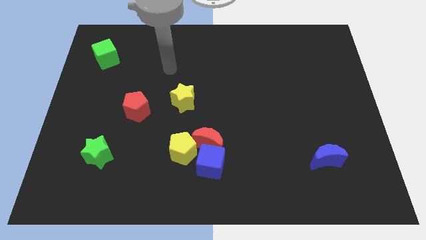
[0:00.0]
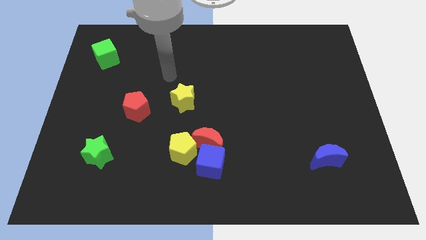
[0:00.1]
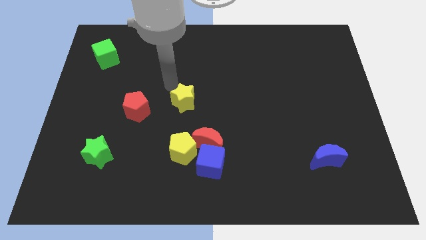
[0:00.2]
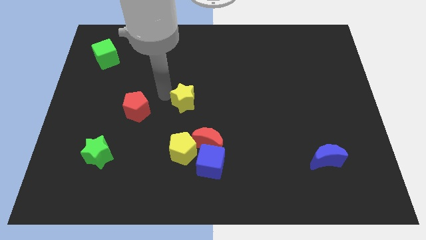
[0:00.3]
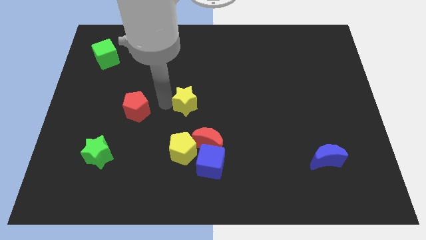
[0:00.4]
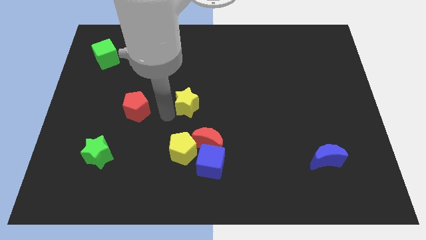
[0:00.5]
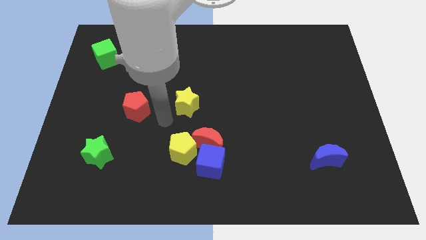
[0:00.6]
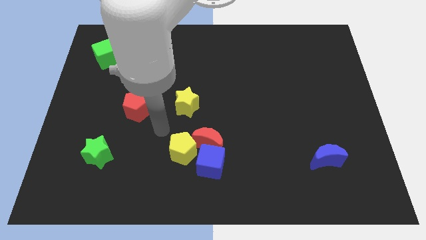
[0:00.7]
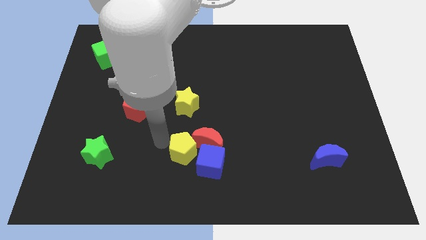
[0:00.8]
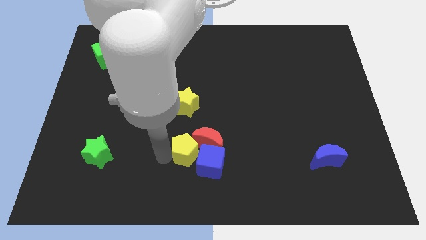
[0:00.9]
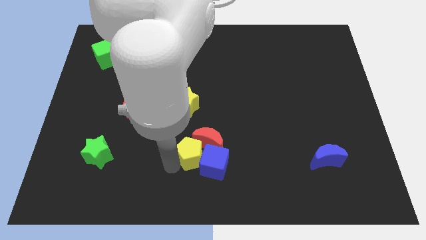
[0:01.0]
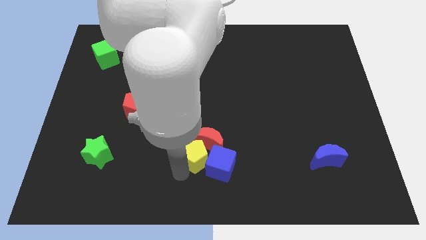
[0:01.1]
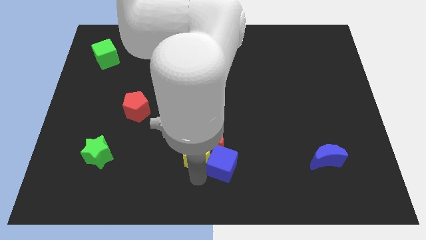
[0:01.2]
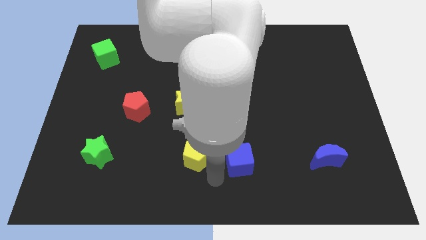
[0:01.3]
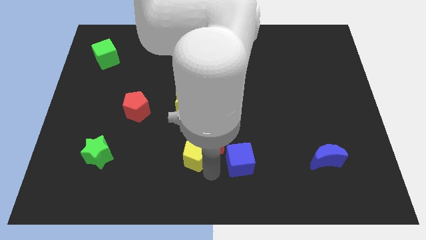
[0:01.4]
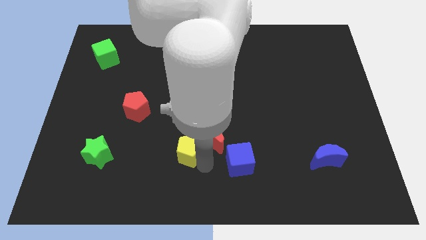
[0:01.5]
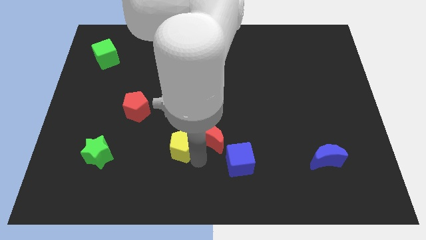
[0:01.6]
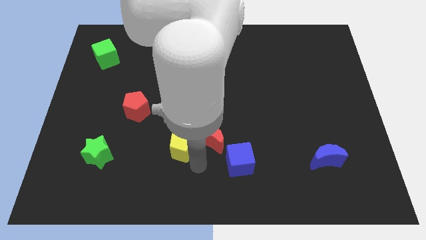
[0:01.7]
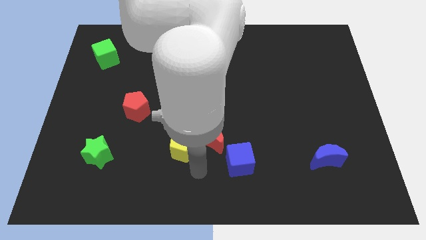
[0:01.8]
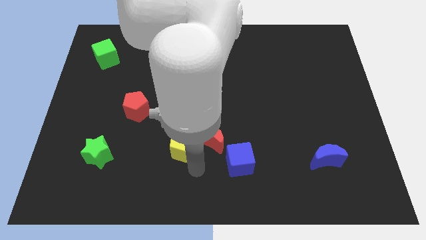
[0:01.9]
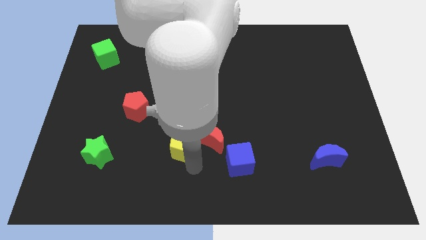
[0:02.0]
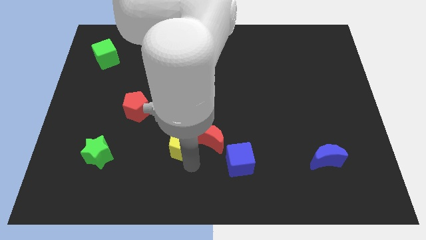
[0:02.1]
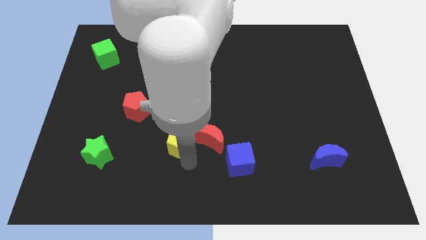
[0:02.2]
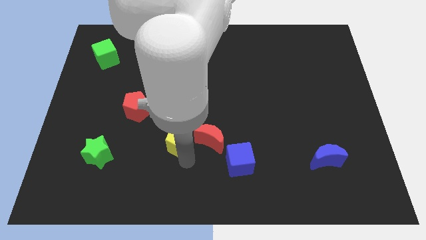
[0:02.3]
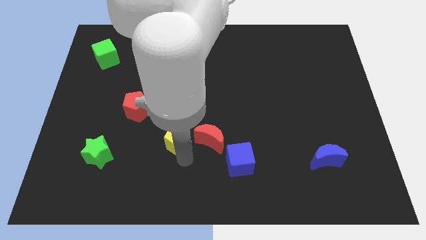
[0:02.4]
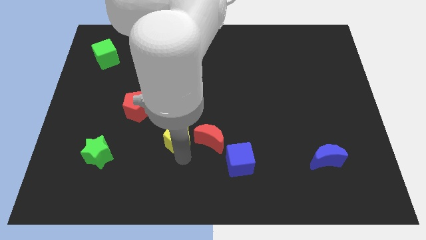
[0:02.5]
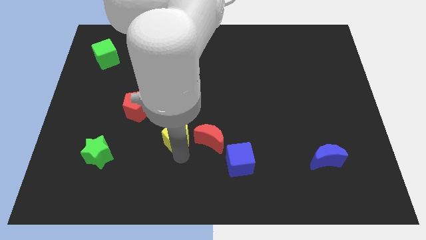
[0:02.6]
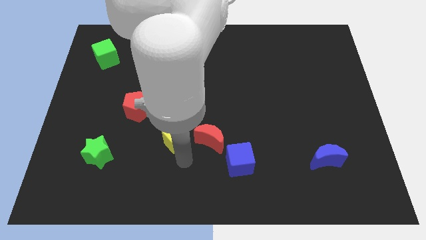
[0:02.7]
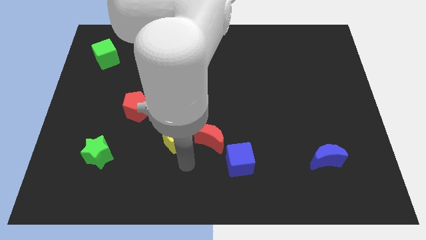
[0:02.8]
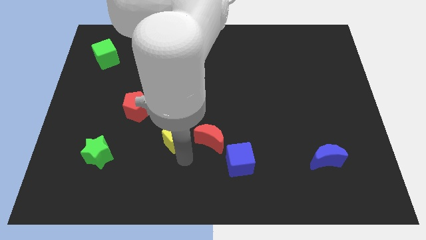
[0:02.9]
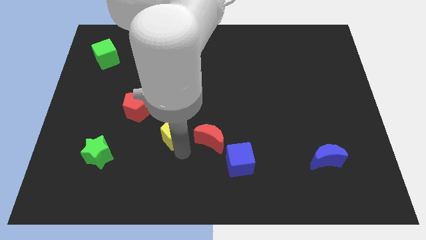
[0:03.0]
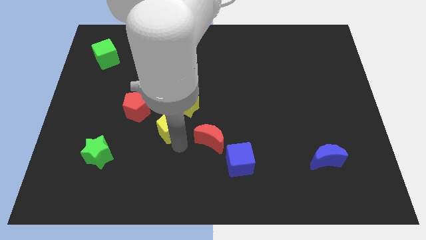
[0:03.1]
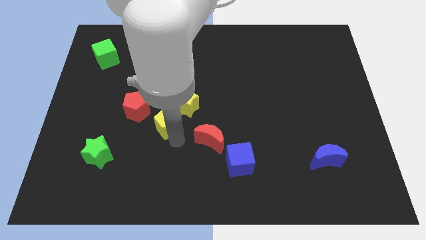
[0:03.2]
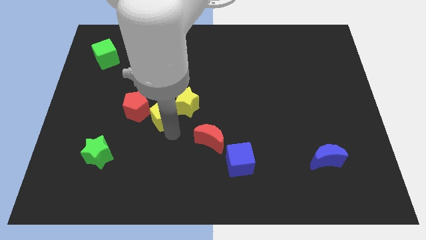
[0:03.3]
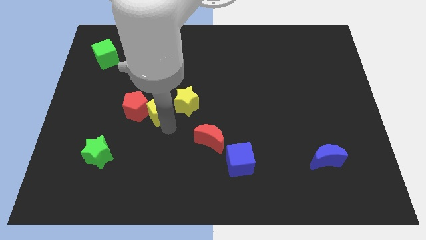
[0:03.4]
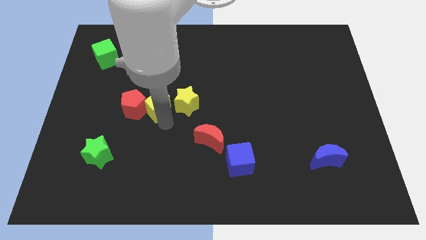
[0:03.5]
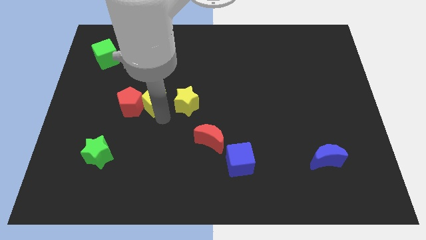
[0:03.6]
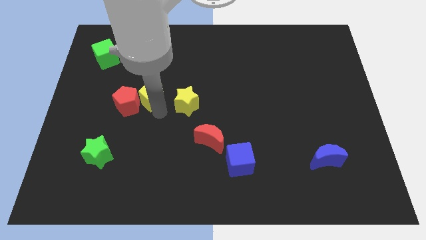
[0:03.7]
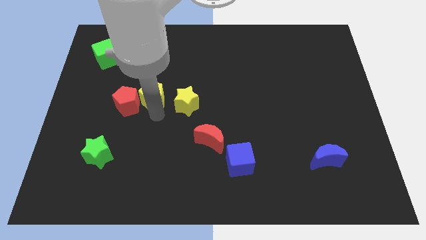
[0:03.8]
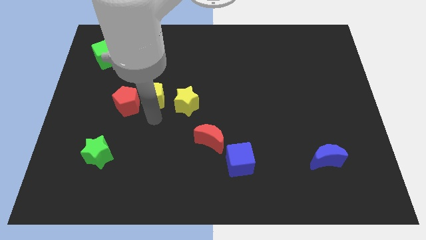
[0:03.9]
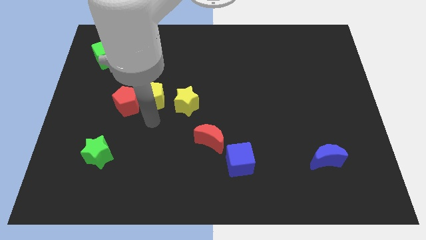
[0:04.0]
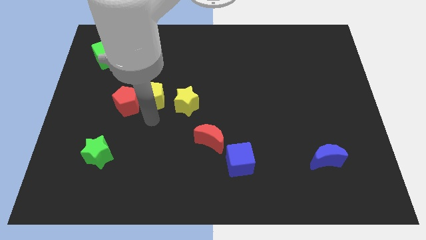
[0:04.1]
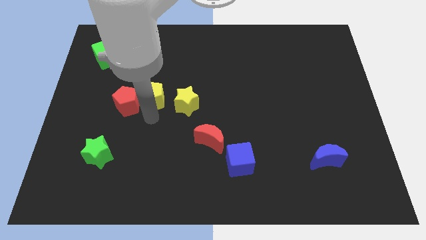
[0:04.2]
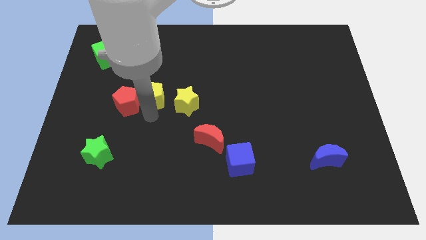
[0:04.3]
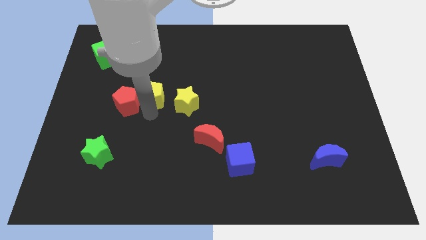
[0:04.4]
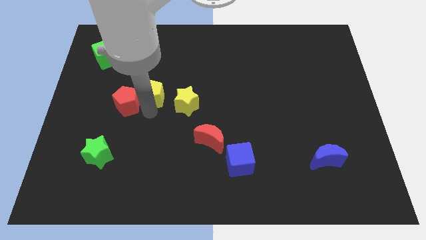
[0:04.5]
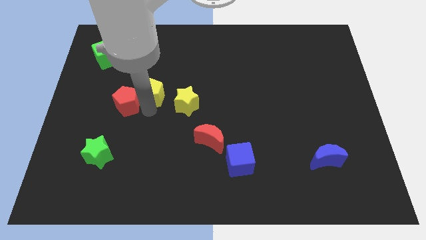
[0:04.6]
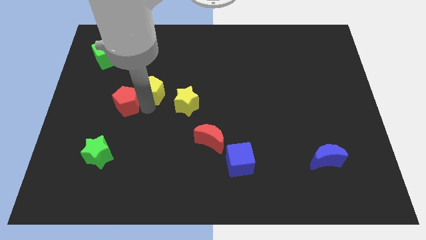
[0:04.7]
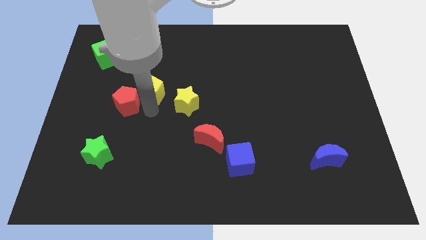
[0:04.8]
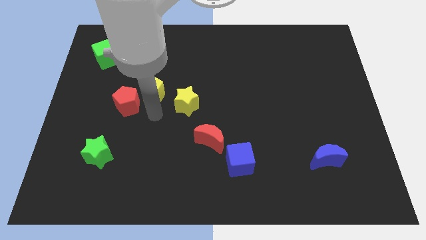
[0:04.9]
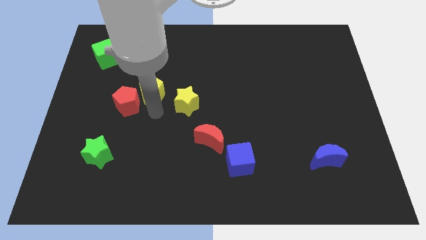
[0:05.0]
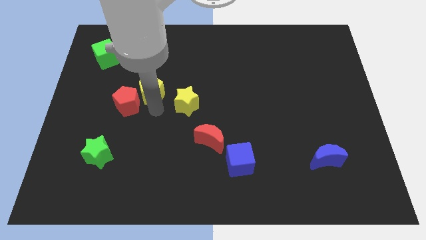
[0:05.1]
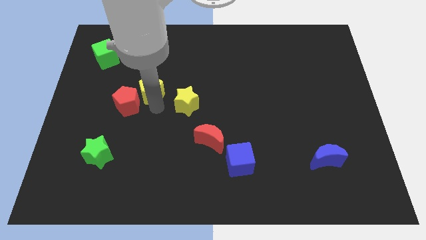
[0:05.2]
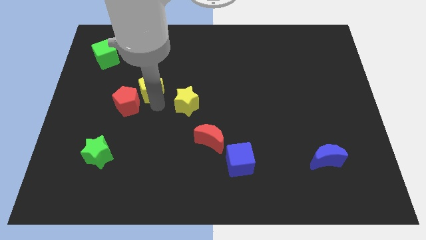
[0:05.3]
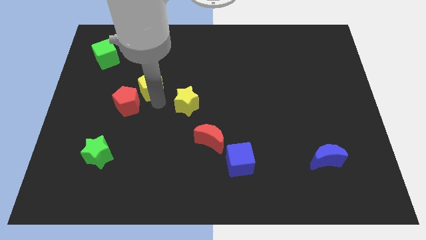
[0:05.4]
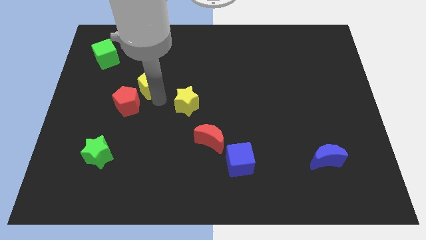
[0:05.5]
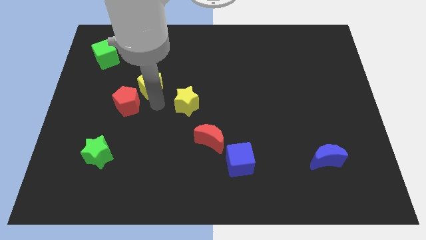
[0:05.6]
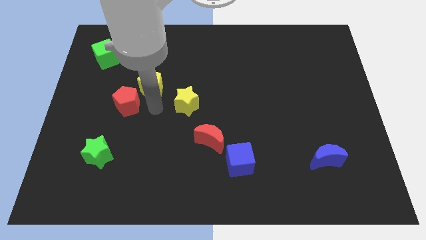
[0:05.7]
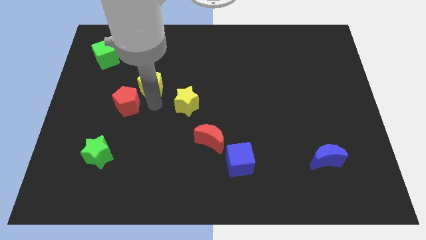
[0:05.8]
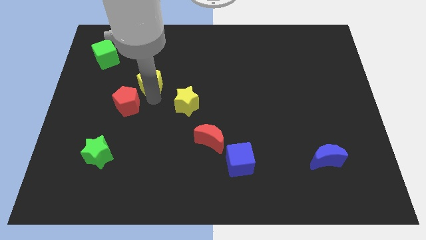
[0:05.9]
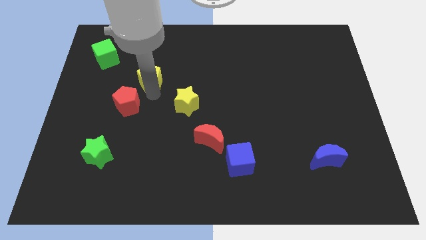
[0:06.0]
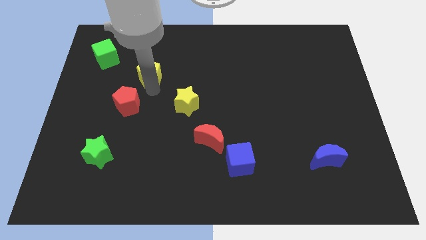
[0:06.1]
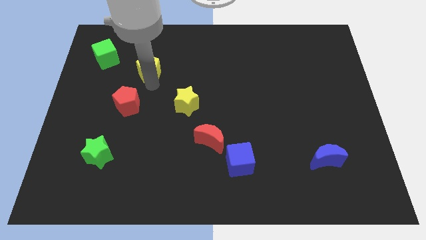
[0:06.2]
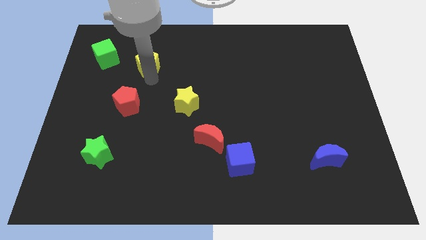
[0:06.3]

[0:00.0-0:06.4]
push the yellow pentagon to the right of the green cube
